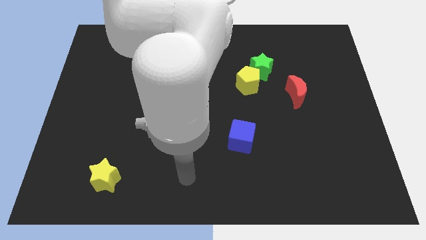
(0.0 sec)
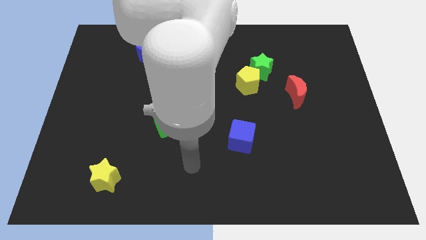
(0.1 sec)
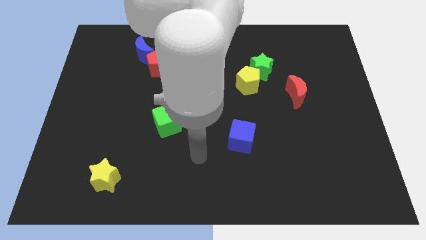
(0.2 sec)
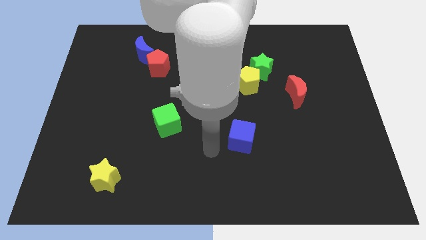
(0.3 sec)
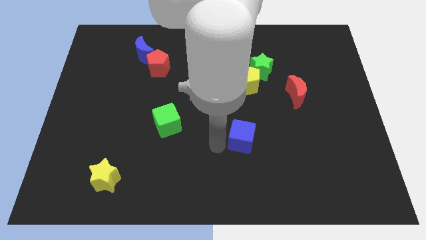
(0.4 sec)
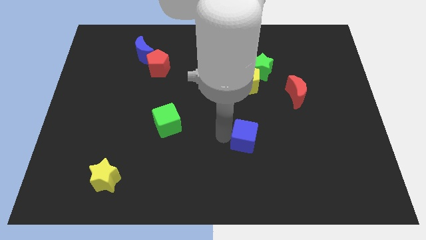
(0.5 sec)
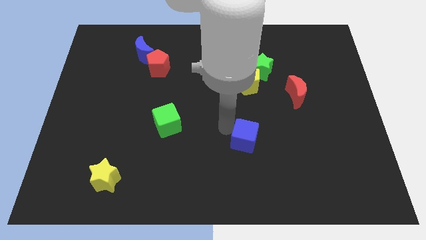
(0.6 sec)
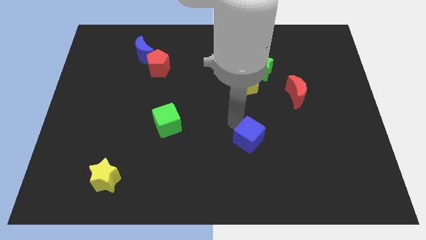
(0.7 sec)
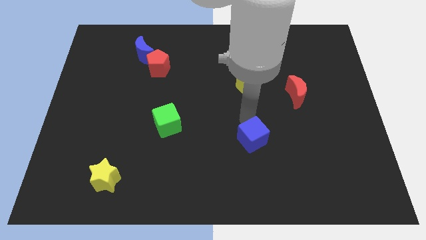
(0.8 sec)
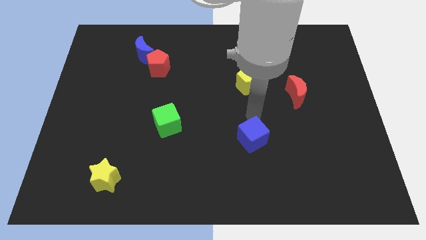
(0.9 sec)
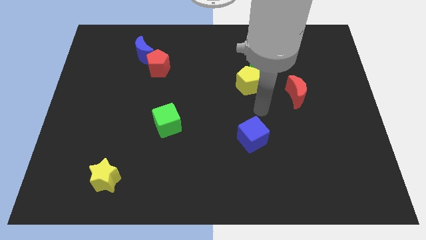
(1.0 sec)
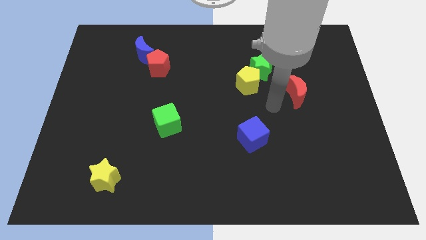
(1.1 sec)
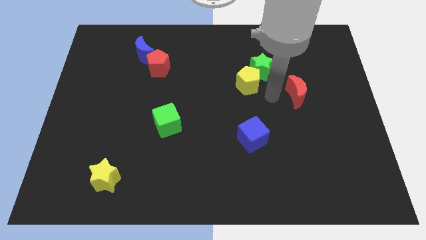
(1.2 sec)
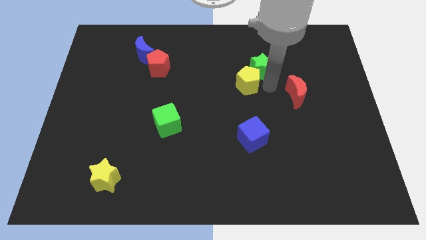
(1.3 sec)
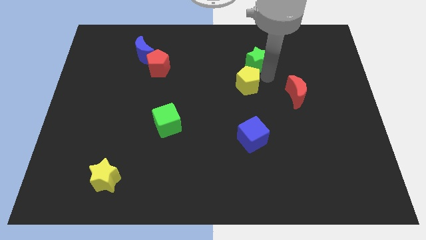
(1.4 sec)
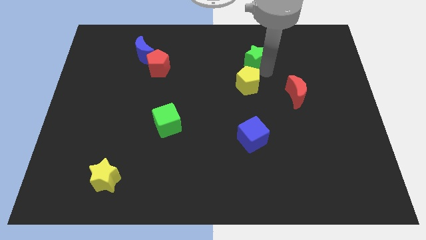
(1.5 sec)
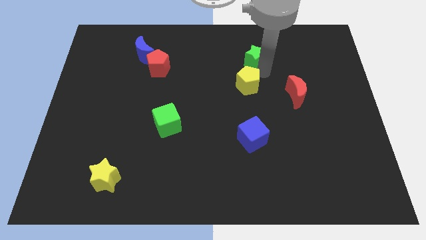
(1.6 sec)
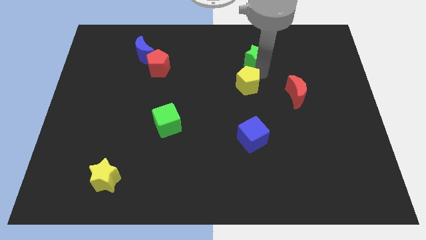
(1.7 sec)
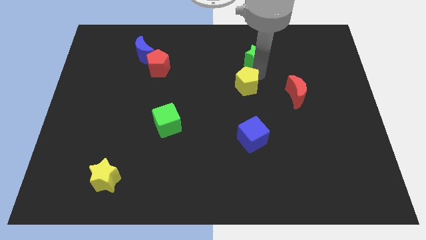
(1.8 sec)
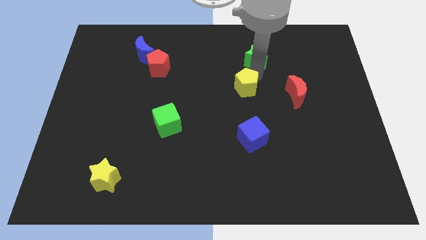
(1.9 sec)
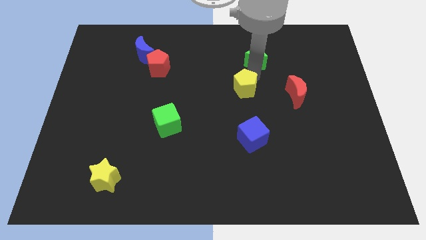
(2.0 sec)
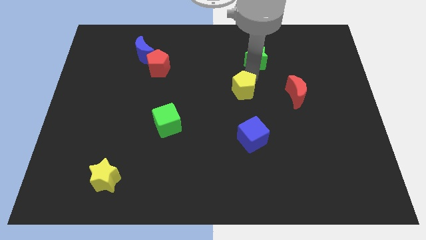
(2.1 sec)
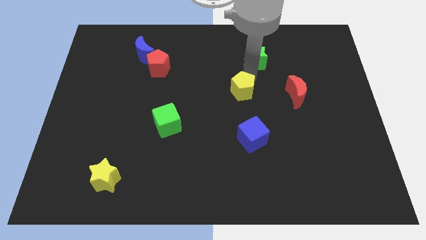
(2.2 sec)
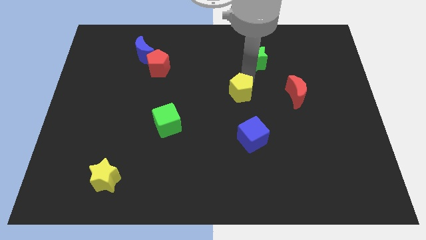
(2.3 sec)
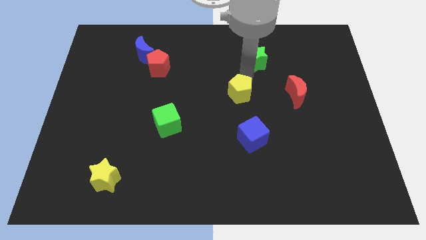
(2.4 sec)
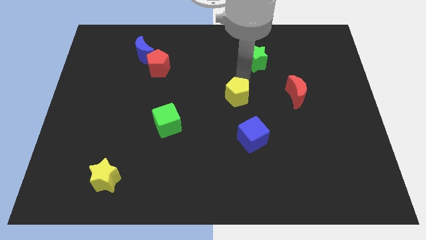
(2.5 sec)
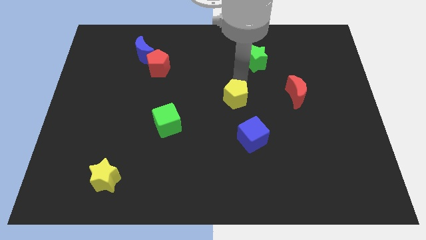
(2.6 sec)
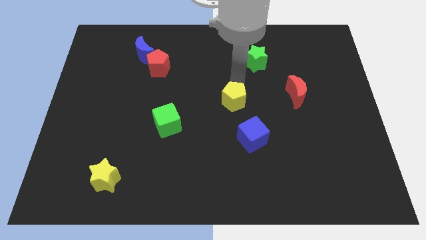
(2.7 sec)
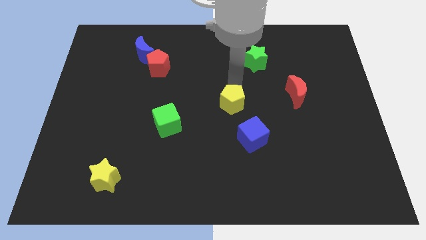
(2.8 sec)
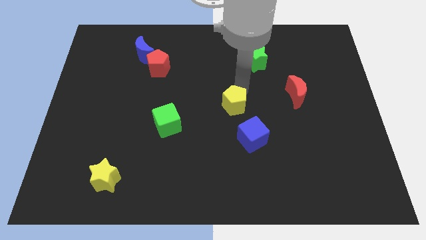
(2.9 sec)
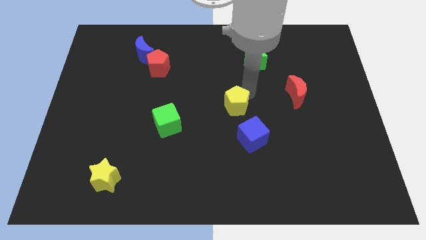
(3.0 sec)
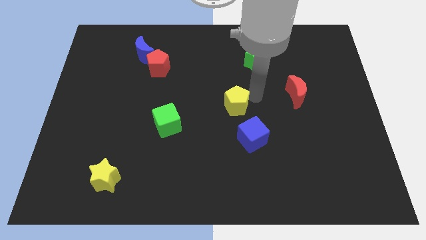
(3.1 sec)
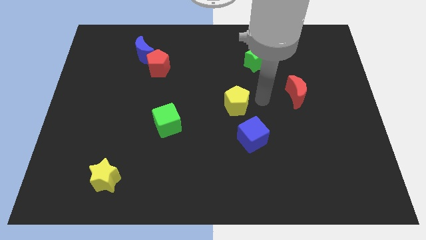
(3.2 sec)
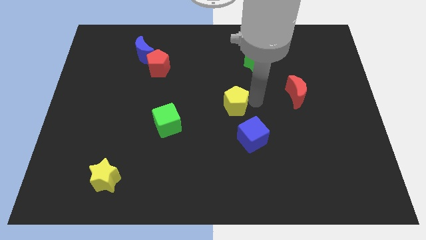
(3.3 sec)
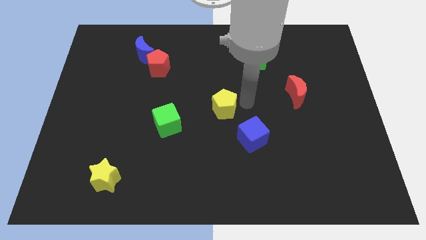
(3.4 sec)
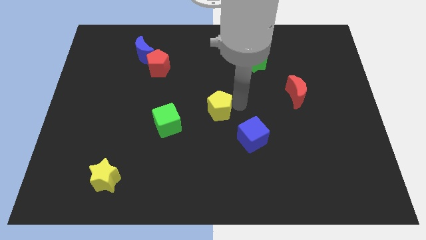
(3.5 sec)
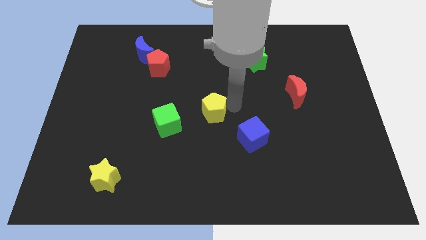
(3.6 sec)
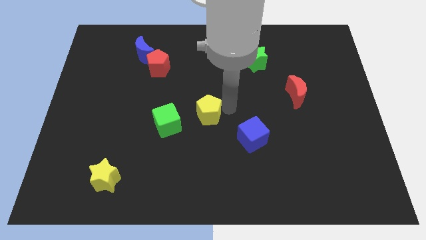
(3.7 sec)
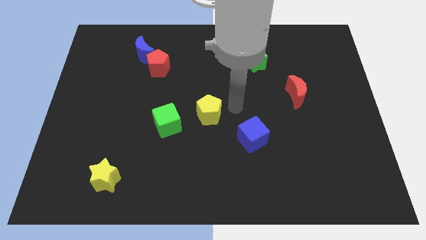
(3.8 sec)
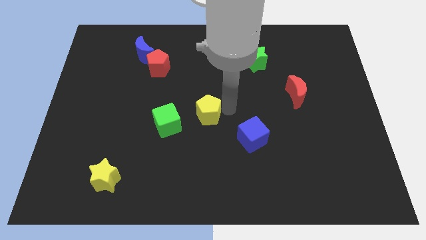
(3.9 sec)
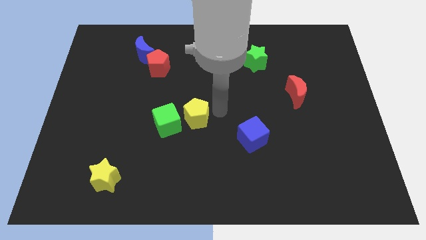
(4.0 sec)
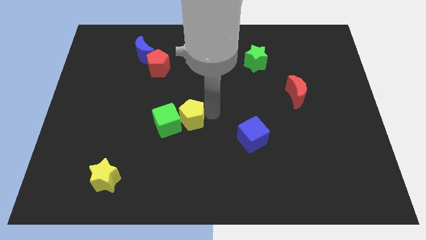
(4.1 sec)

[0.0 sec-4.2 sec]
slide the yellow pentagon close to the green cube

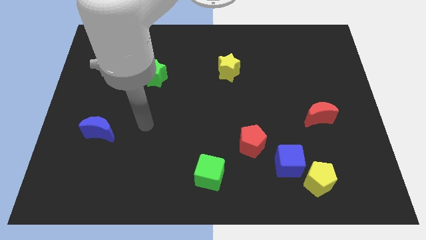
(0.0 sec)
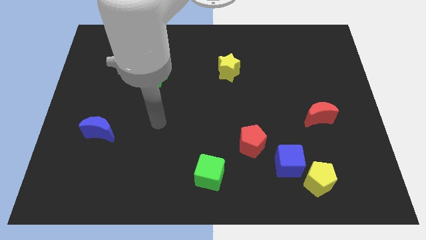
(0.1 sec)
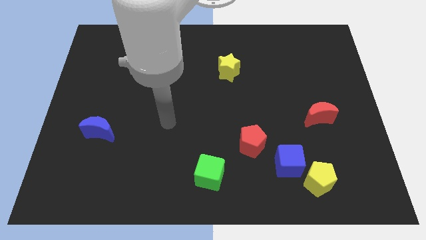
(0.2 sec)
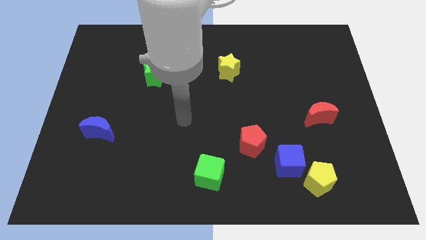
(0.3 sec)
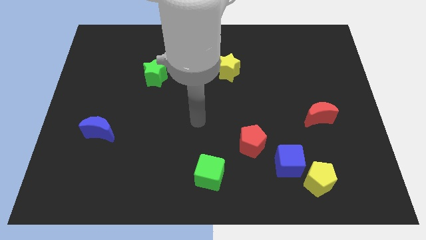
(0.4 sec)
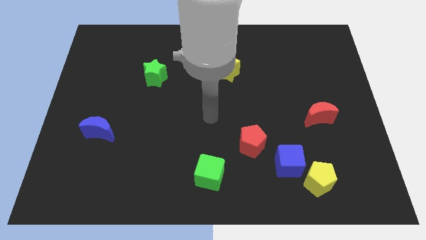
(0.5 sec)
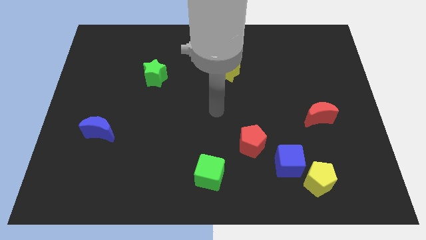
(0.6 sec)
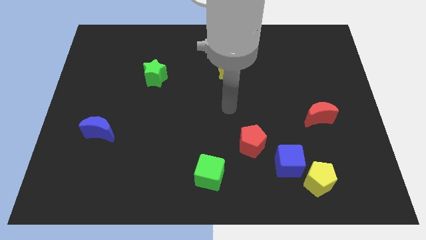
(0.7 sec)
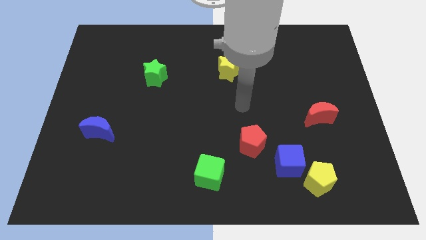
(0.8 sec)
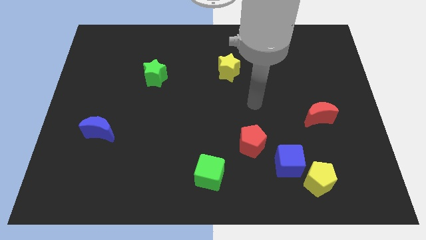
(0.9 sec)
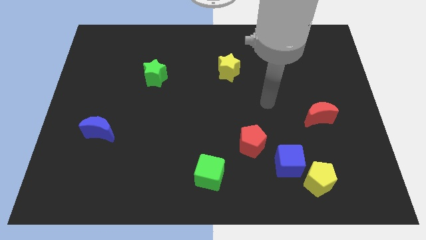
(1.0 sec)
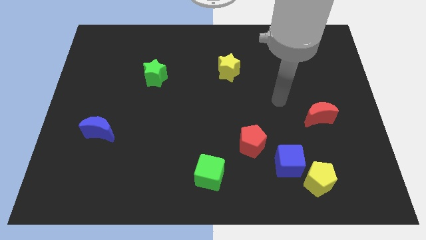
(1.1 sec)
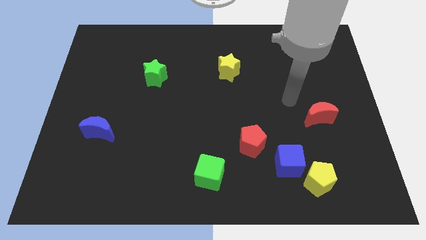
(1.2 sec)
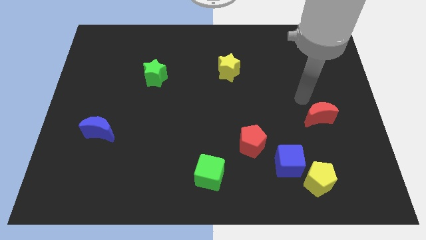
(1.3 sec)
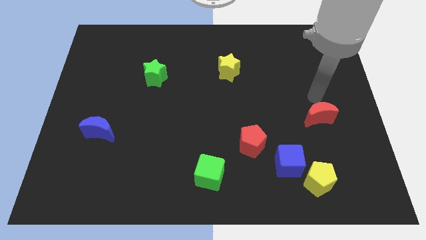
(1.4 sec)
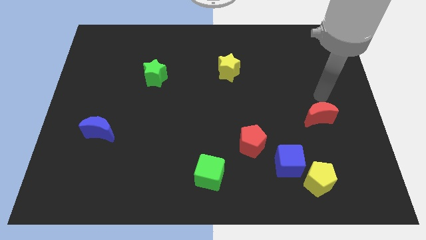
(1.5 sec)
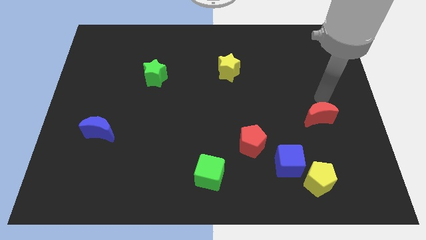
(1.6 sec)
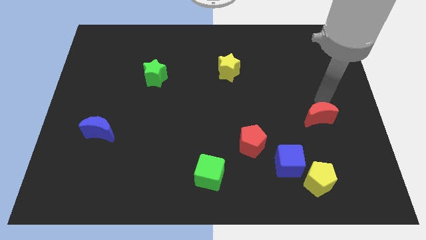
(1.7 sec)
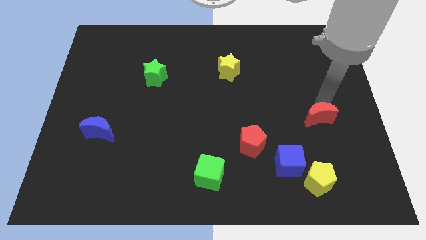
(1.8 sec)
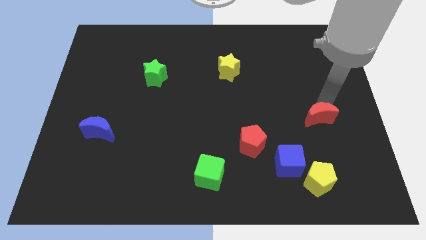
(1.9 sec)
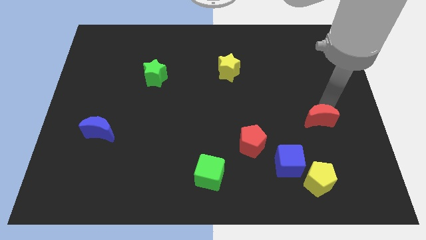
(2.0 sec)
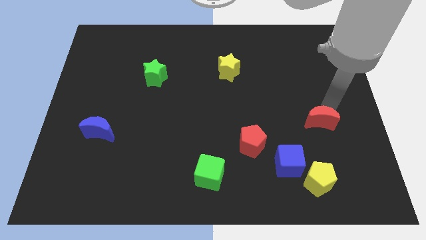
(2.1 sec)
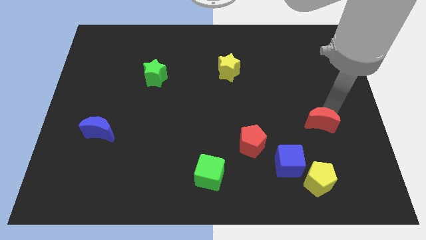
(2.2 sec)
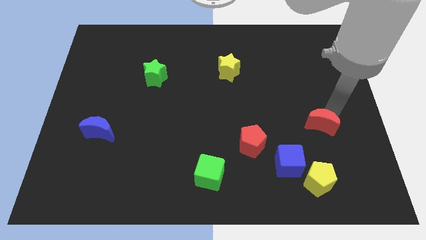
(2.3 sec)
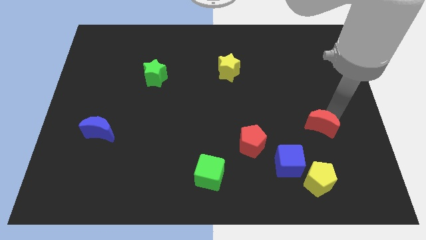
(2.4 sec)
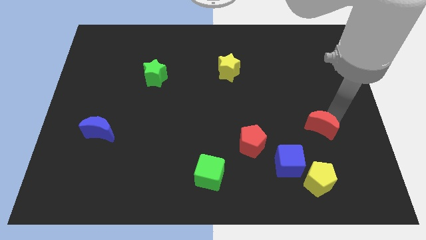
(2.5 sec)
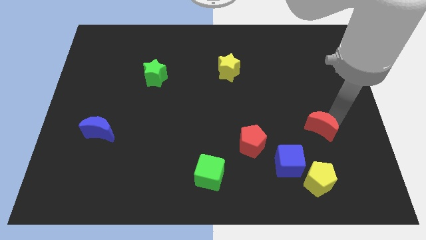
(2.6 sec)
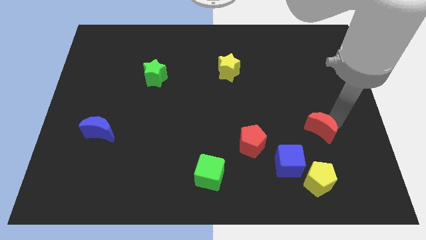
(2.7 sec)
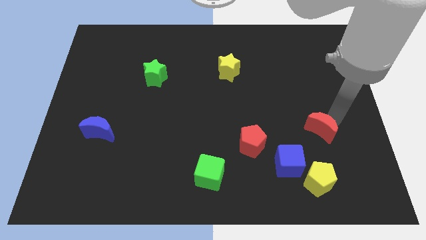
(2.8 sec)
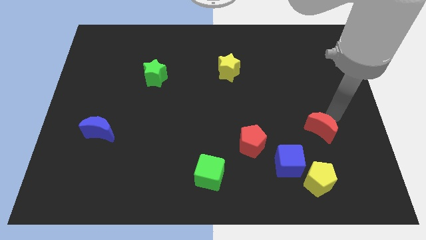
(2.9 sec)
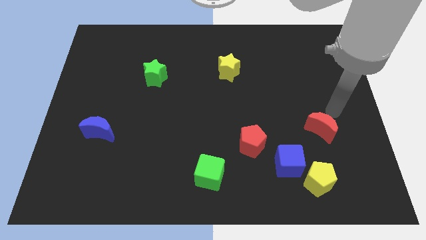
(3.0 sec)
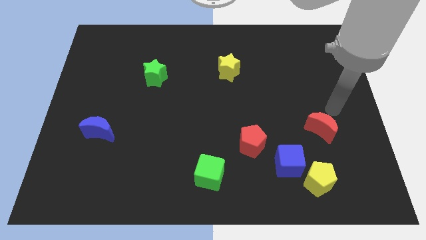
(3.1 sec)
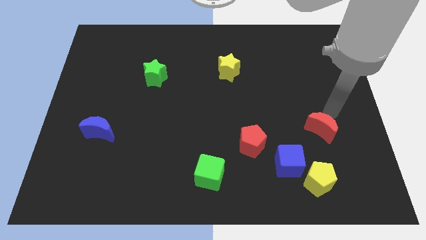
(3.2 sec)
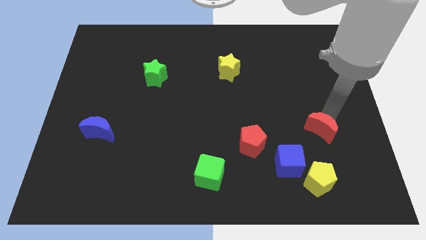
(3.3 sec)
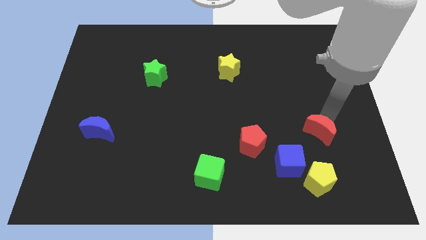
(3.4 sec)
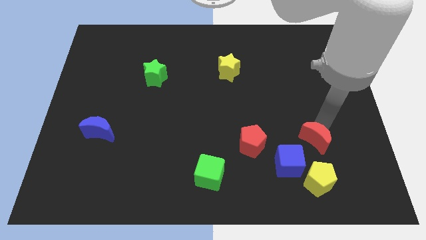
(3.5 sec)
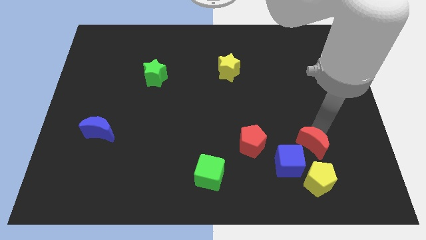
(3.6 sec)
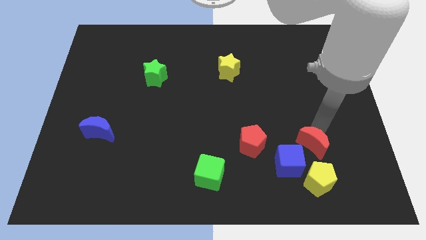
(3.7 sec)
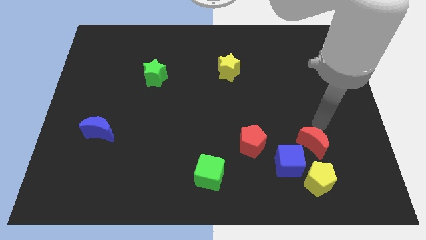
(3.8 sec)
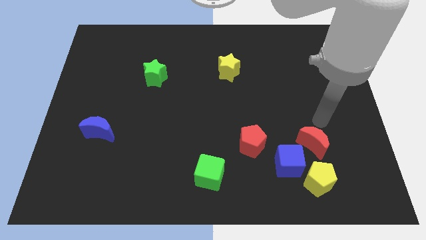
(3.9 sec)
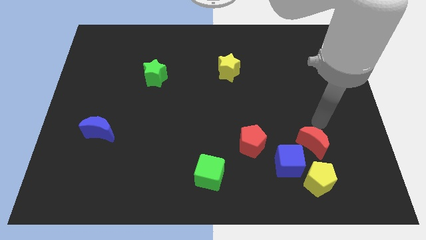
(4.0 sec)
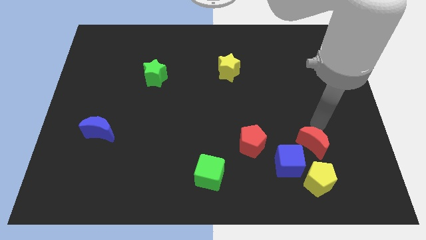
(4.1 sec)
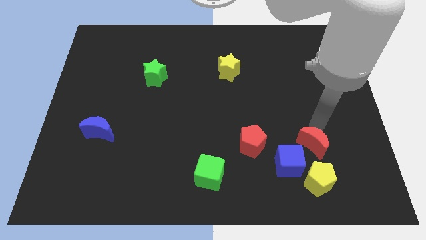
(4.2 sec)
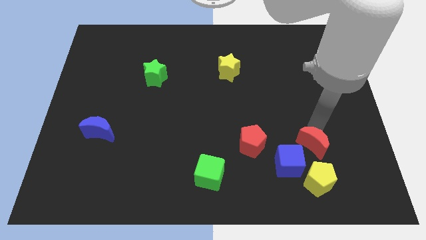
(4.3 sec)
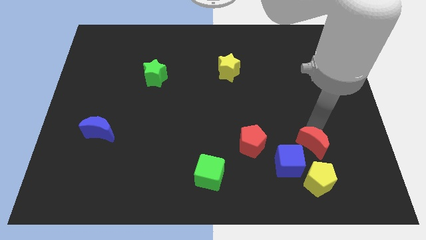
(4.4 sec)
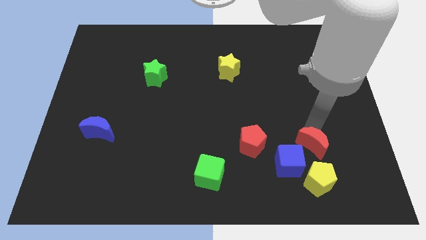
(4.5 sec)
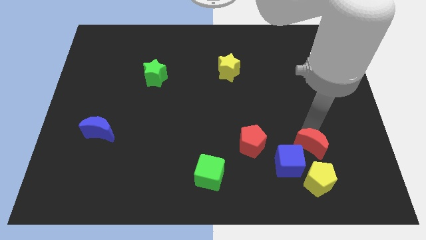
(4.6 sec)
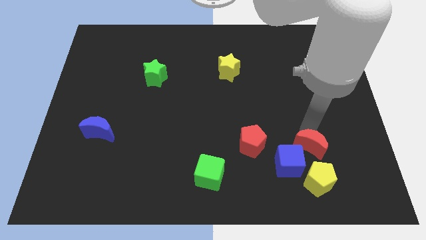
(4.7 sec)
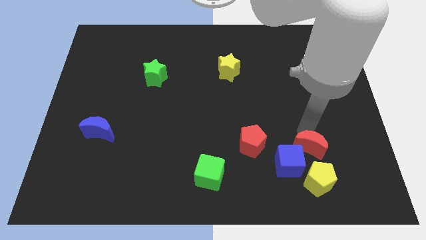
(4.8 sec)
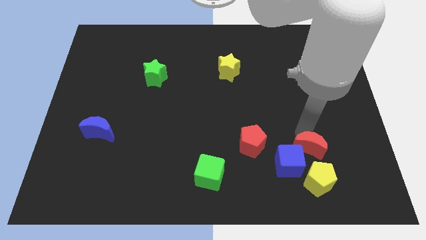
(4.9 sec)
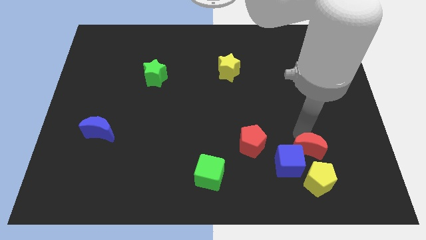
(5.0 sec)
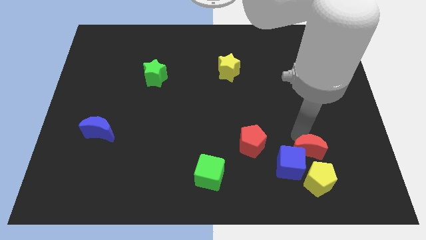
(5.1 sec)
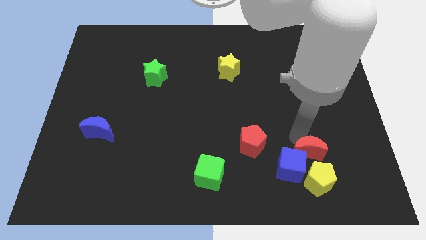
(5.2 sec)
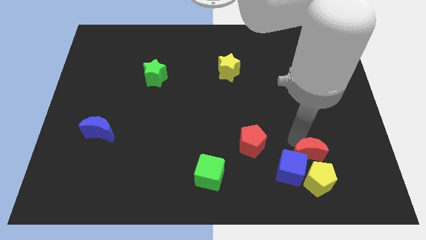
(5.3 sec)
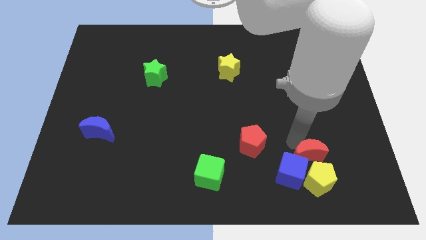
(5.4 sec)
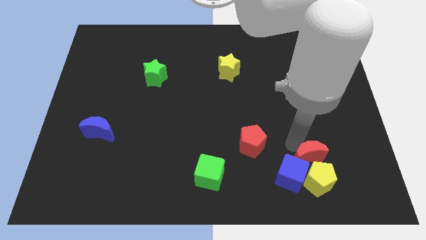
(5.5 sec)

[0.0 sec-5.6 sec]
move the red moon towards the yellow pentagon
